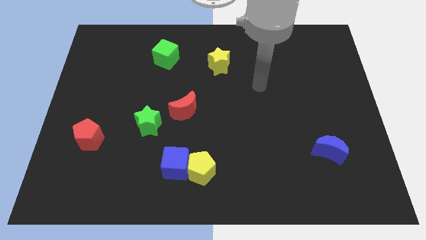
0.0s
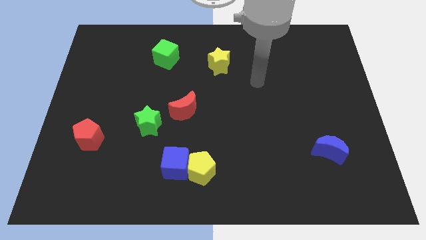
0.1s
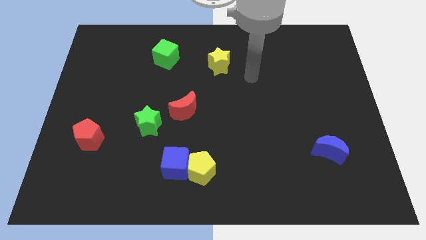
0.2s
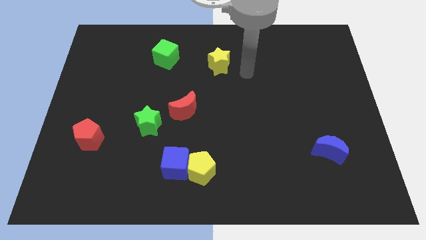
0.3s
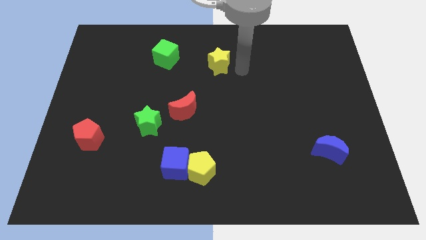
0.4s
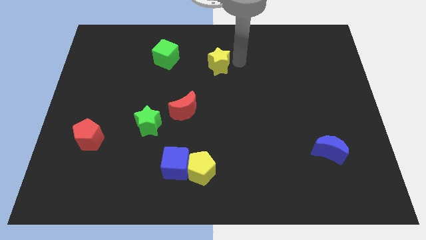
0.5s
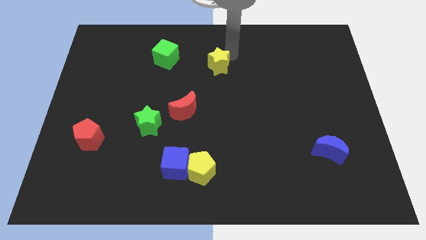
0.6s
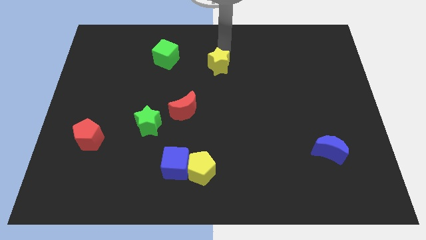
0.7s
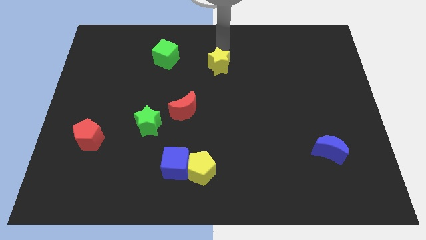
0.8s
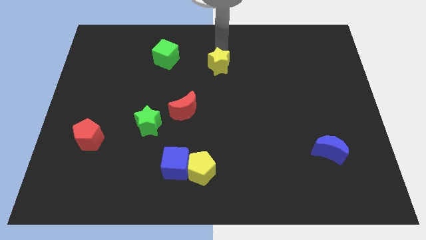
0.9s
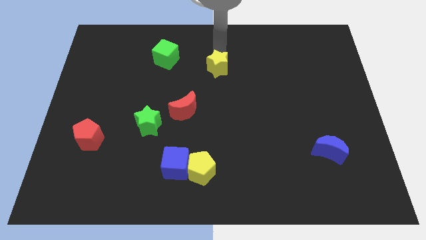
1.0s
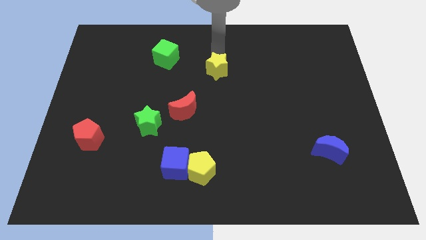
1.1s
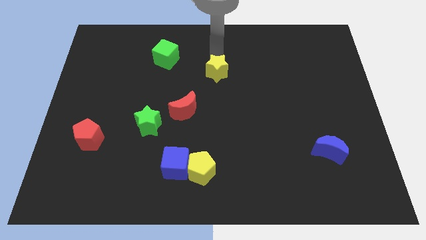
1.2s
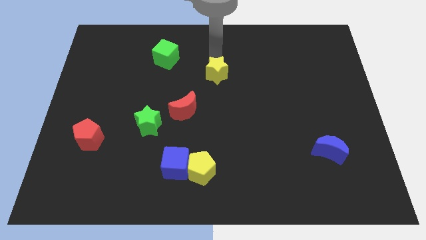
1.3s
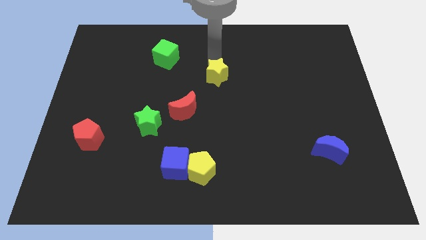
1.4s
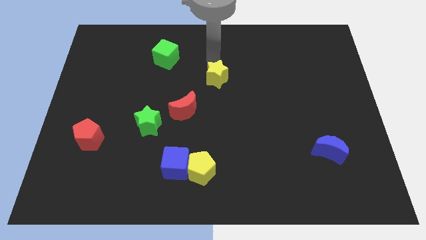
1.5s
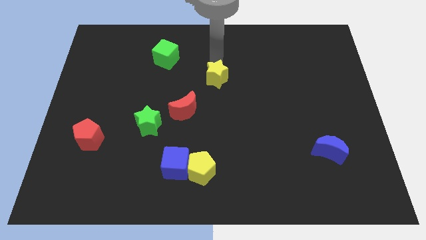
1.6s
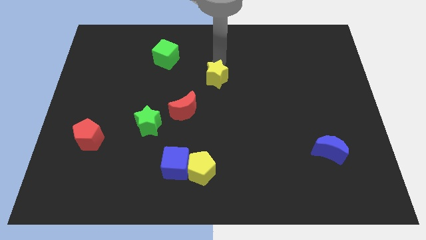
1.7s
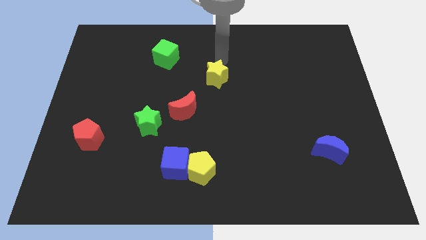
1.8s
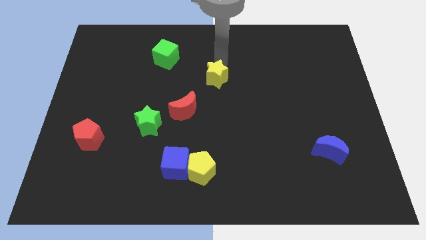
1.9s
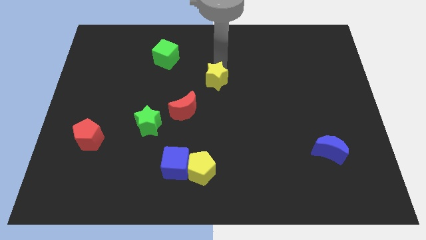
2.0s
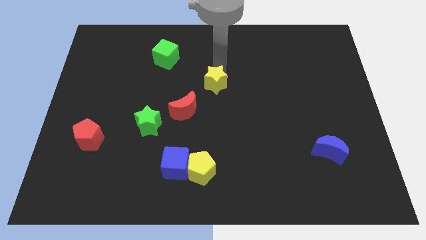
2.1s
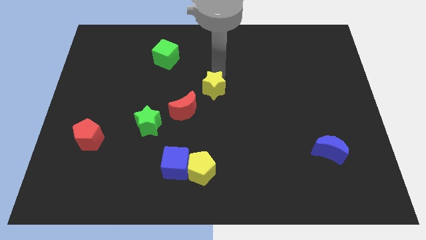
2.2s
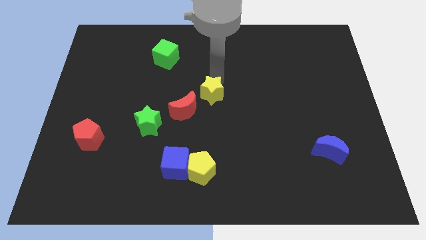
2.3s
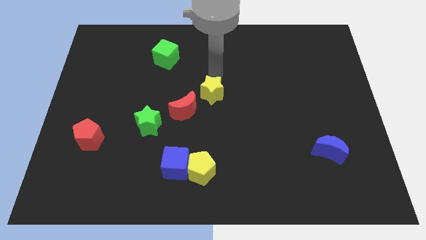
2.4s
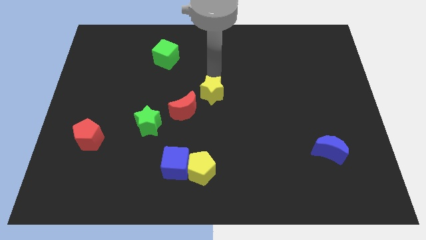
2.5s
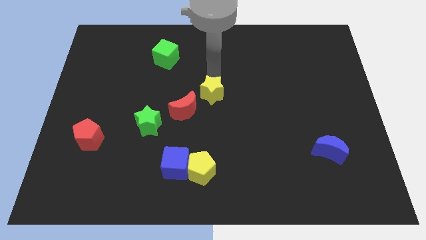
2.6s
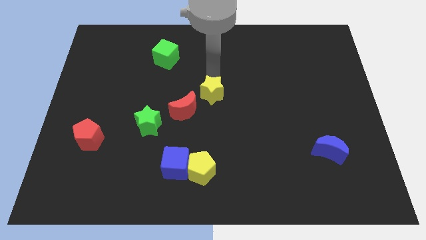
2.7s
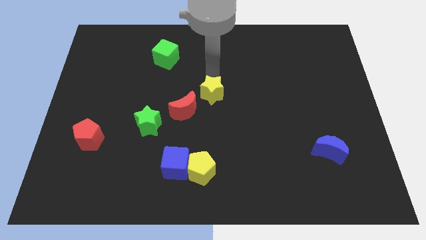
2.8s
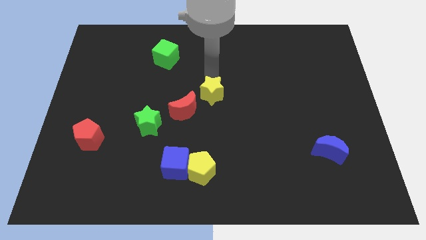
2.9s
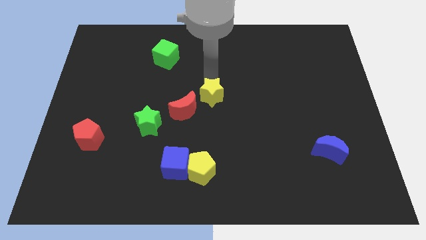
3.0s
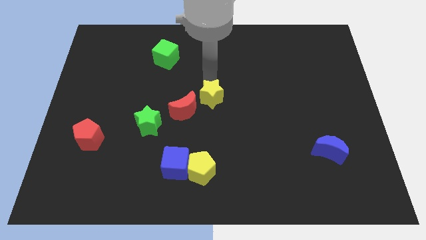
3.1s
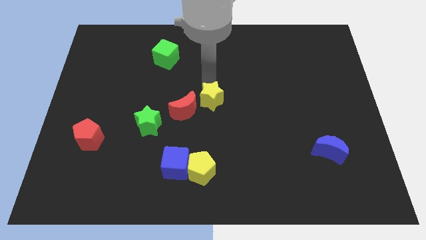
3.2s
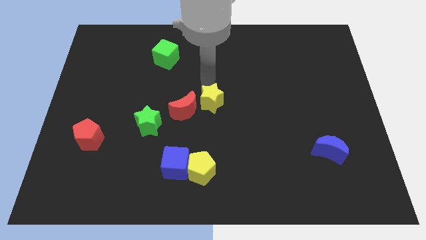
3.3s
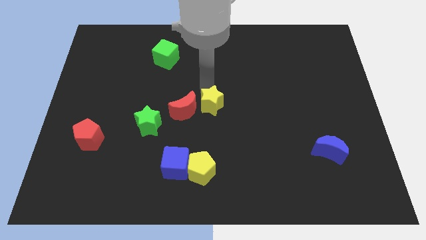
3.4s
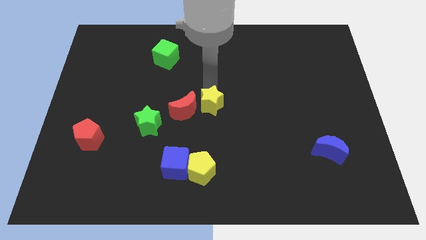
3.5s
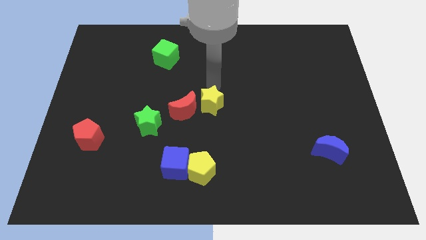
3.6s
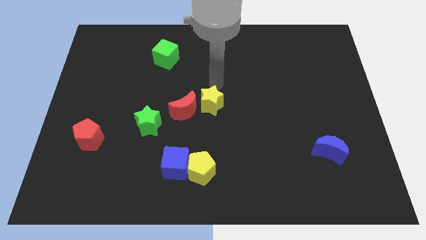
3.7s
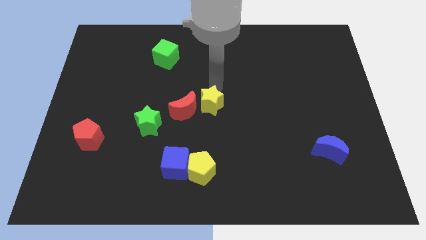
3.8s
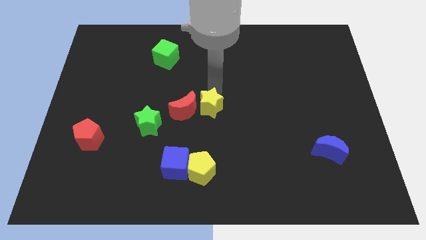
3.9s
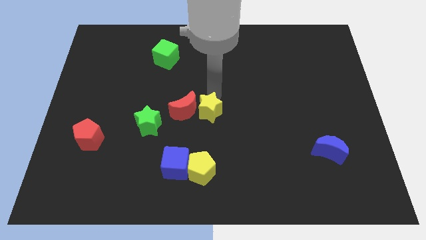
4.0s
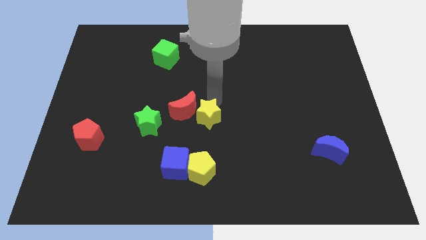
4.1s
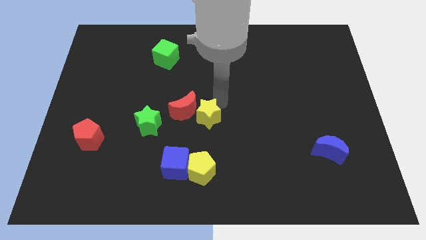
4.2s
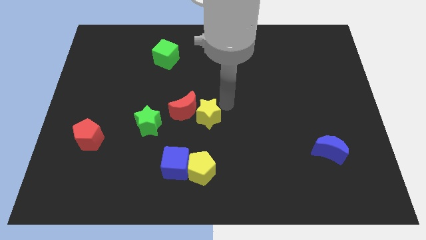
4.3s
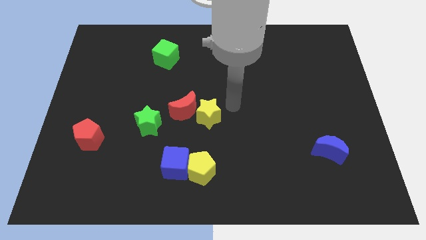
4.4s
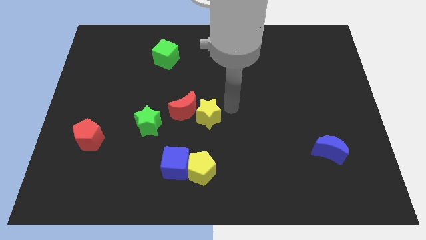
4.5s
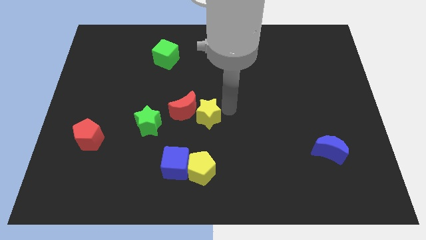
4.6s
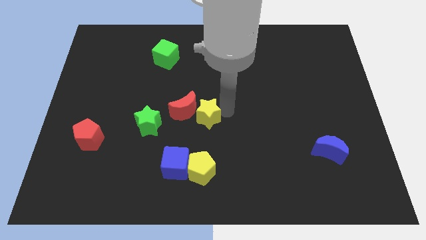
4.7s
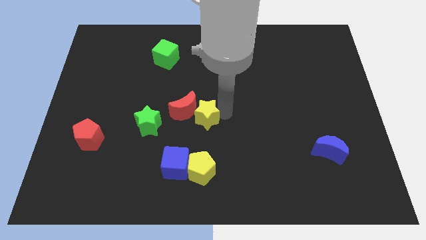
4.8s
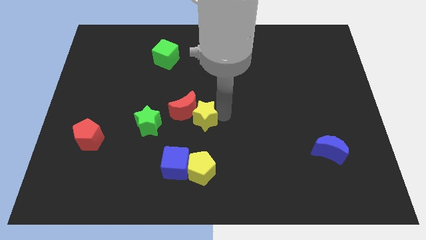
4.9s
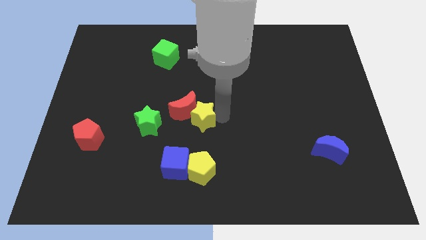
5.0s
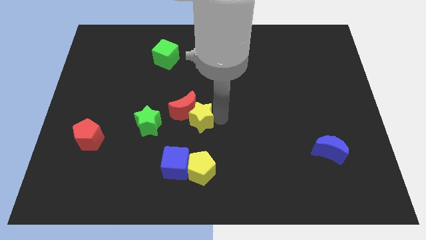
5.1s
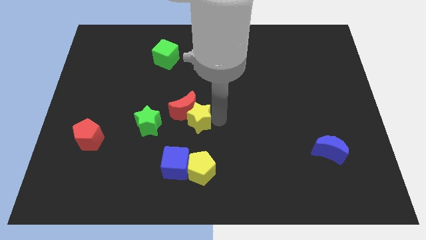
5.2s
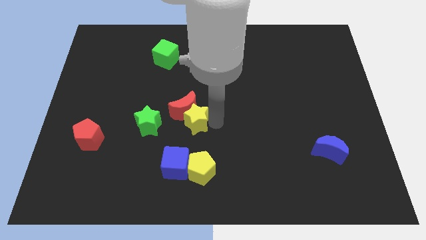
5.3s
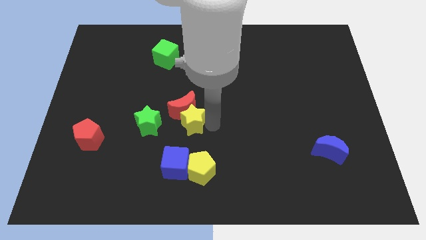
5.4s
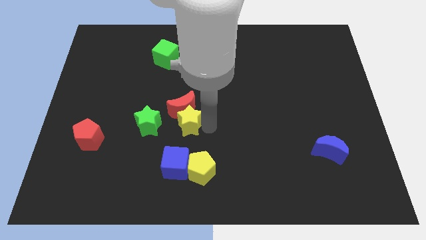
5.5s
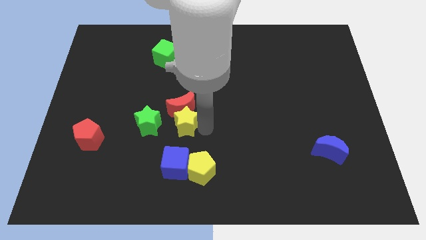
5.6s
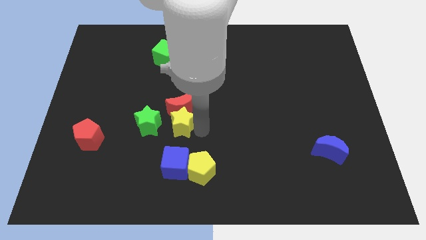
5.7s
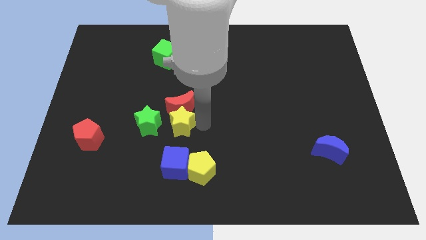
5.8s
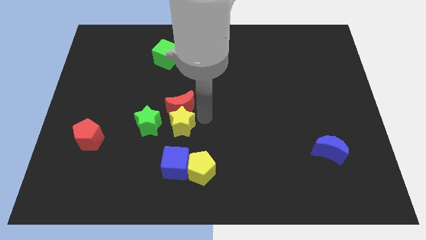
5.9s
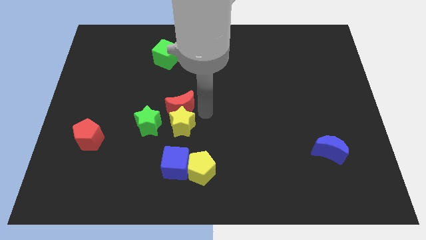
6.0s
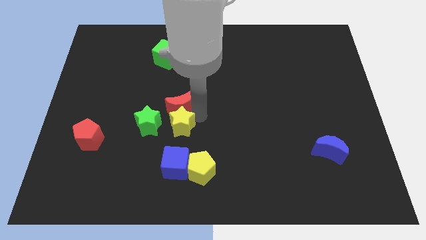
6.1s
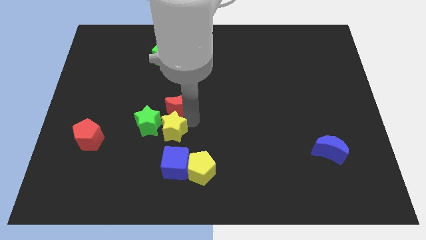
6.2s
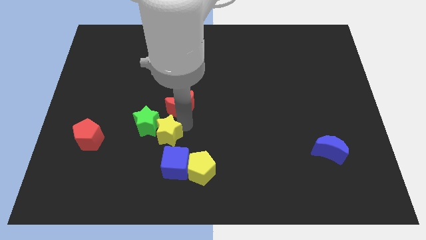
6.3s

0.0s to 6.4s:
push the yellow star to the top left of the blue cube
